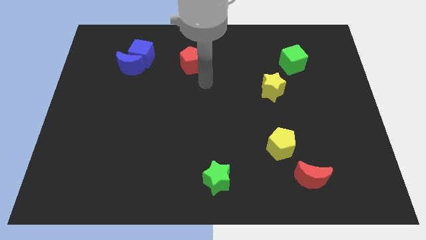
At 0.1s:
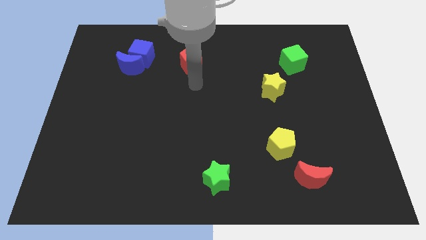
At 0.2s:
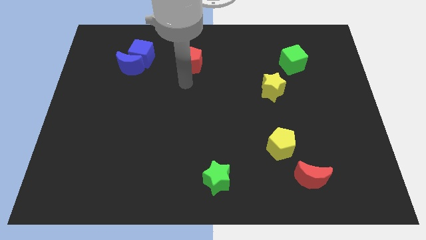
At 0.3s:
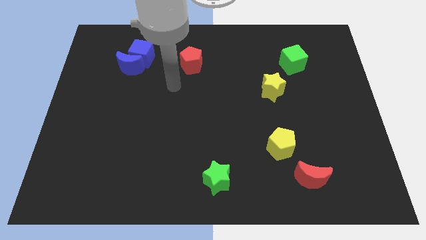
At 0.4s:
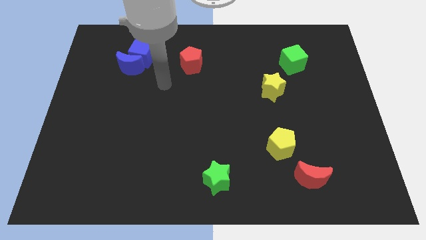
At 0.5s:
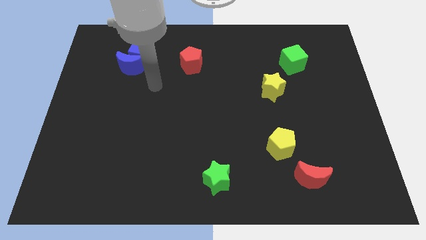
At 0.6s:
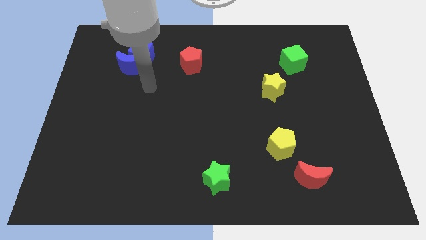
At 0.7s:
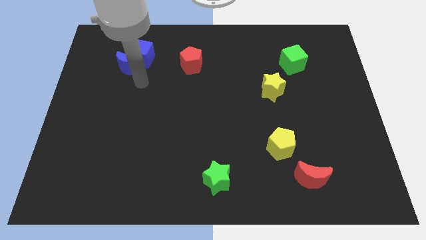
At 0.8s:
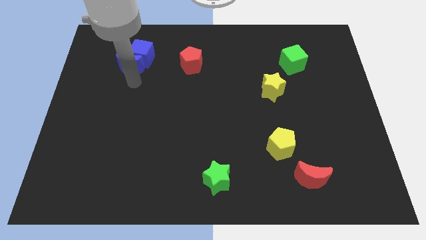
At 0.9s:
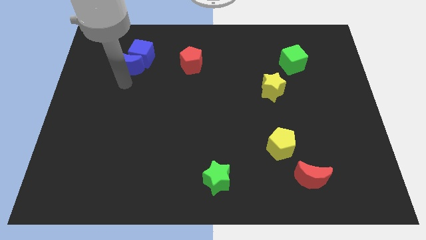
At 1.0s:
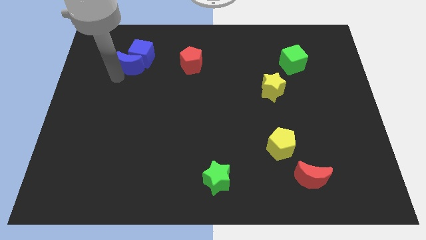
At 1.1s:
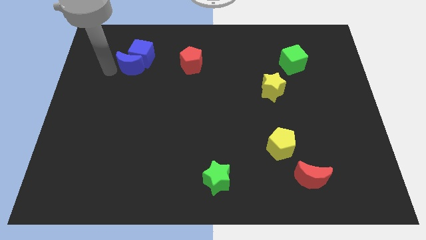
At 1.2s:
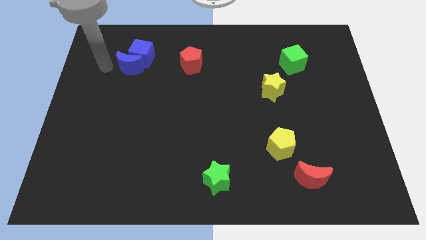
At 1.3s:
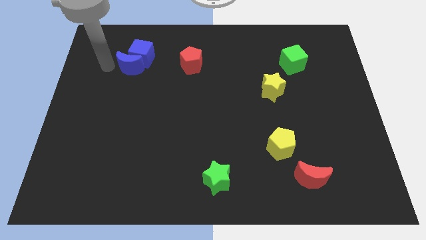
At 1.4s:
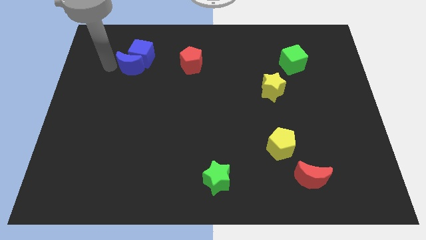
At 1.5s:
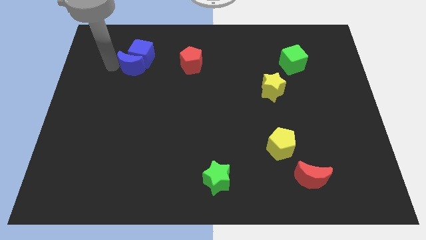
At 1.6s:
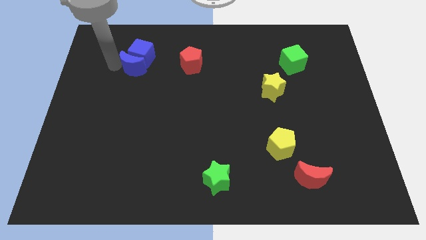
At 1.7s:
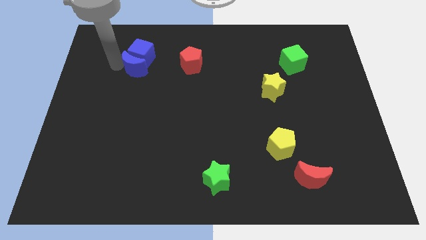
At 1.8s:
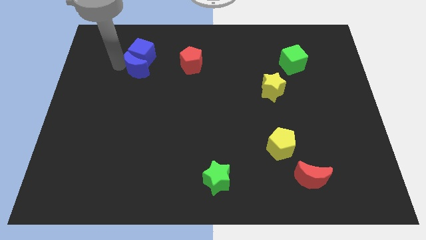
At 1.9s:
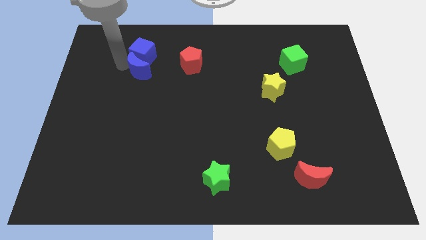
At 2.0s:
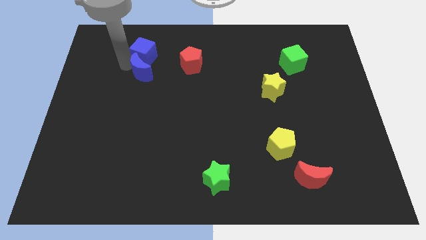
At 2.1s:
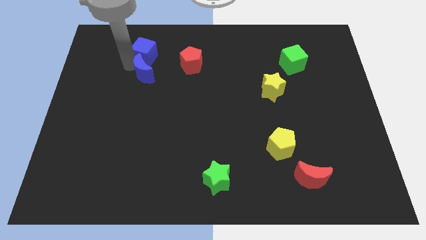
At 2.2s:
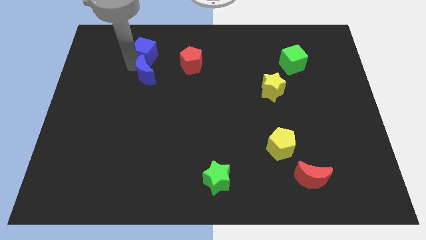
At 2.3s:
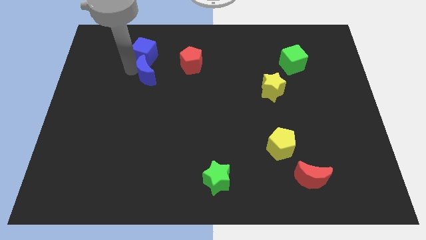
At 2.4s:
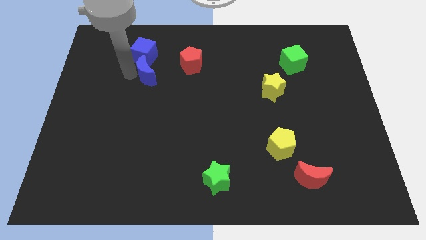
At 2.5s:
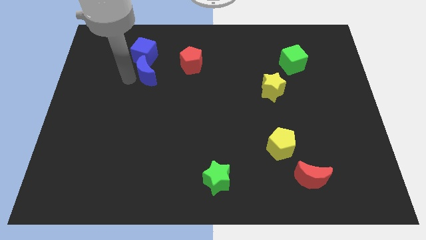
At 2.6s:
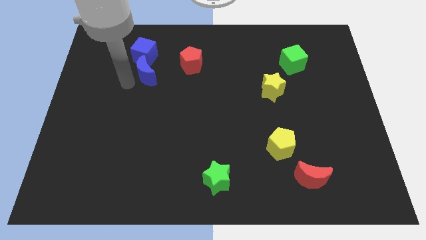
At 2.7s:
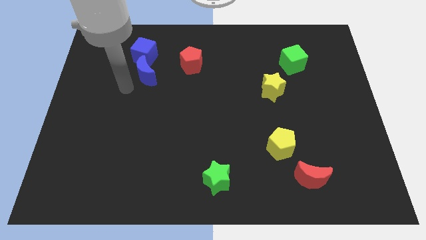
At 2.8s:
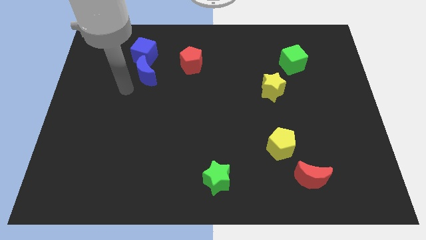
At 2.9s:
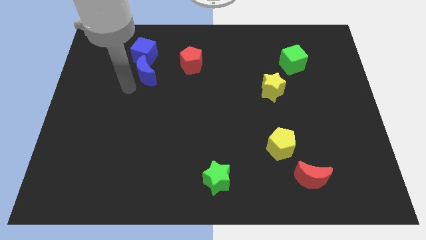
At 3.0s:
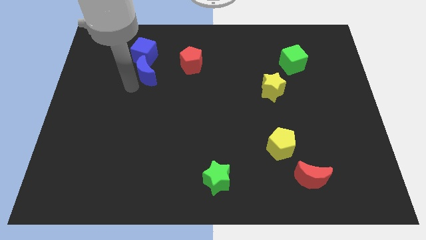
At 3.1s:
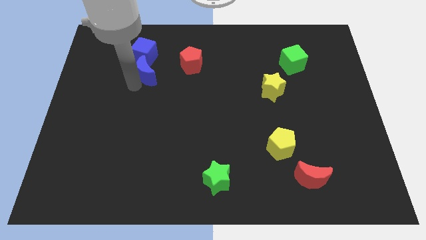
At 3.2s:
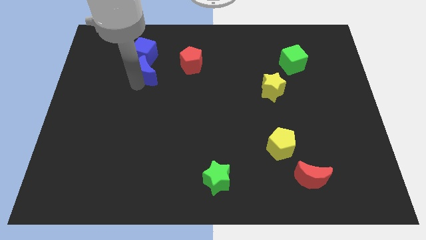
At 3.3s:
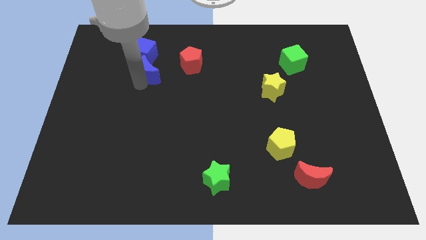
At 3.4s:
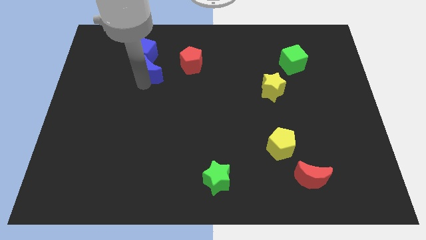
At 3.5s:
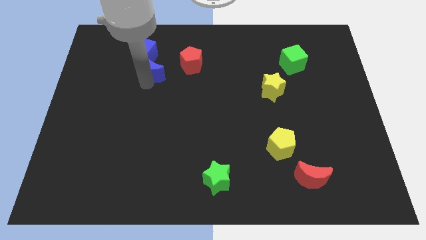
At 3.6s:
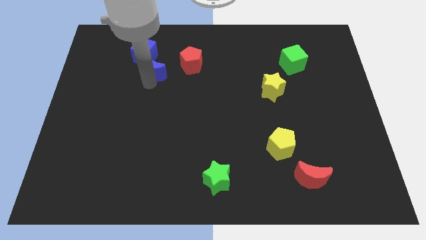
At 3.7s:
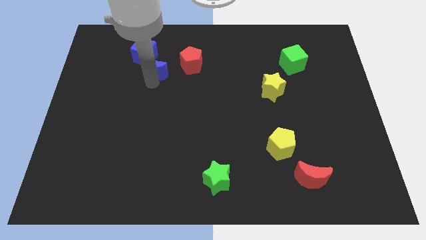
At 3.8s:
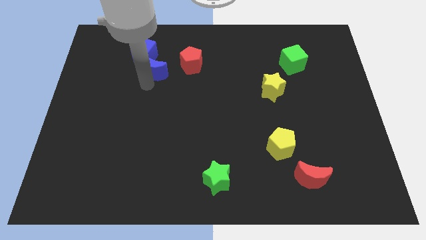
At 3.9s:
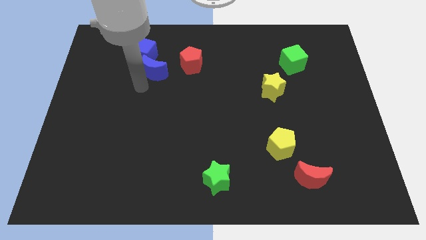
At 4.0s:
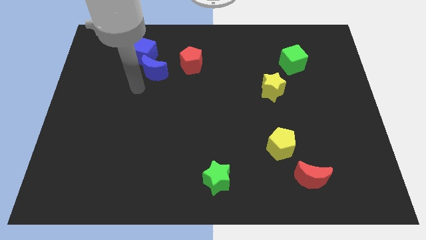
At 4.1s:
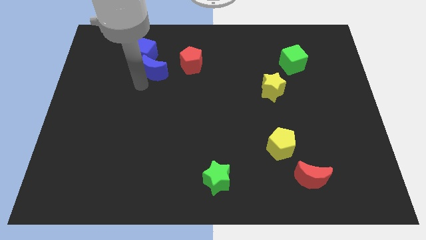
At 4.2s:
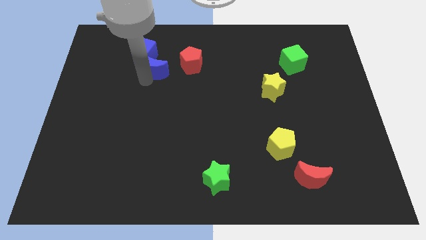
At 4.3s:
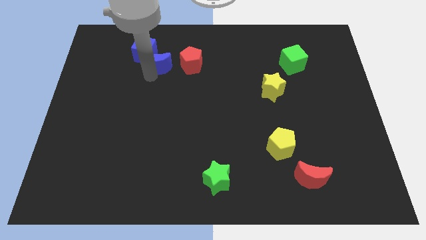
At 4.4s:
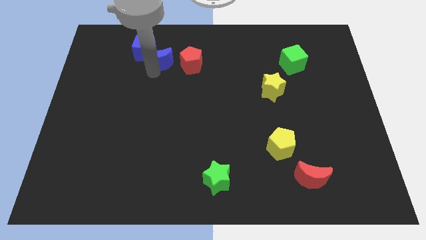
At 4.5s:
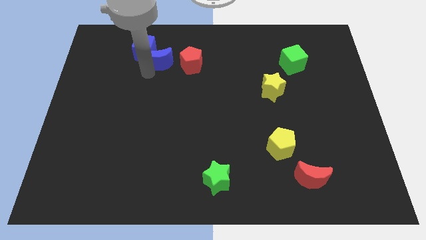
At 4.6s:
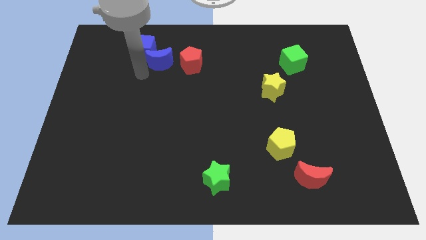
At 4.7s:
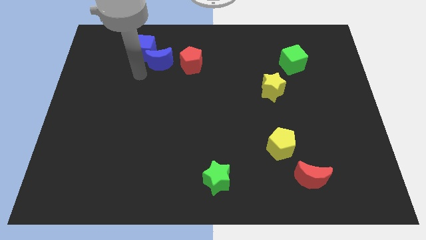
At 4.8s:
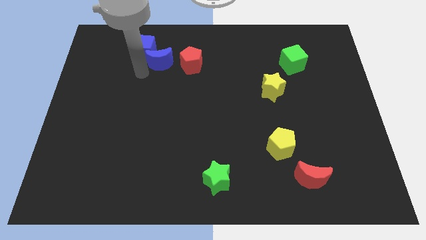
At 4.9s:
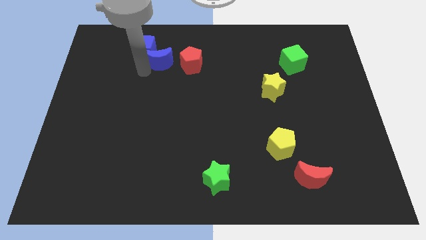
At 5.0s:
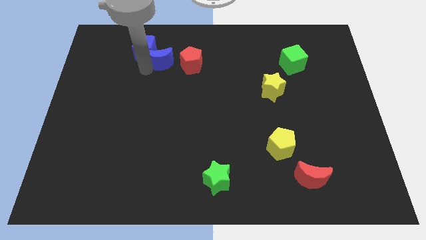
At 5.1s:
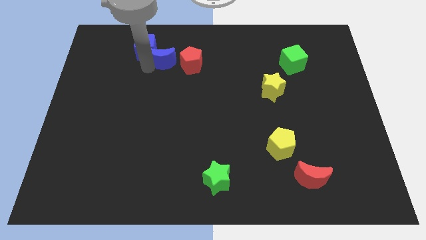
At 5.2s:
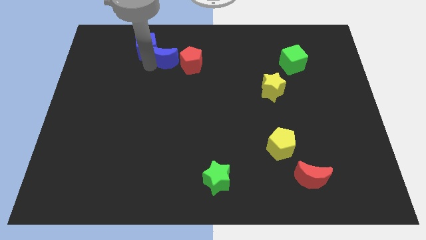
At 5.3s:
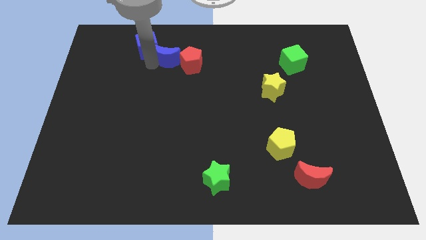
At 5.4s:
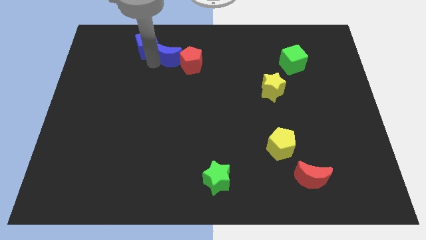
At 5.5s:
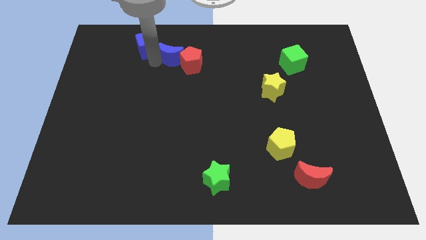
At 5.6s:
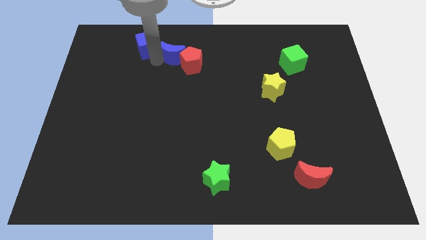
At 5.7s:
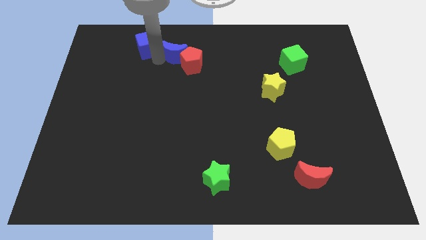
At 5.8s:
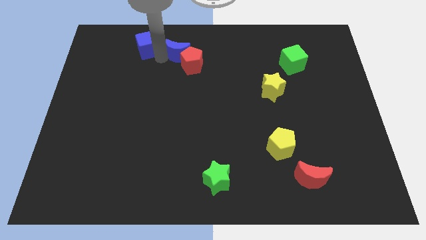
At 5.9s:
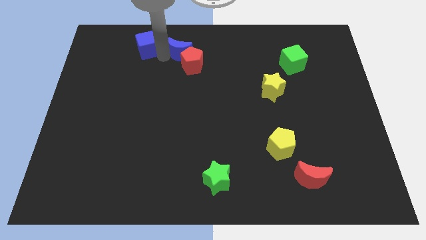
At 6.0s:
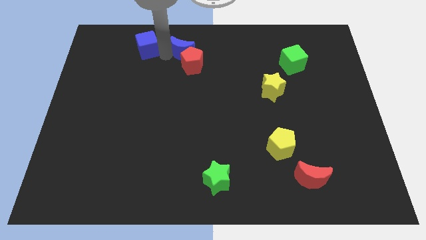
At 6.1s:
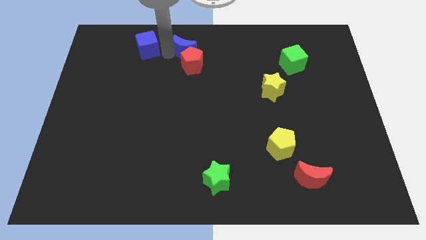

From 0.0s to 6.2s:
move the blue moon to the towards your base
